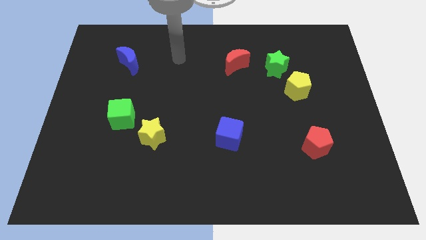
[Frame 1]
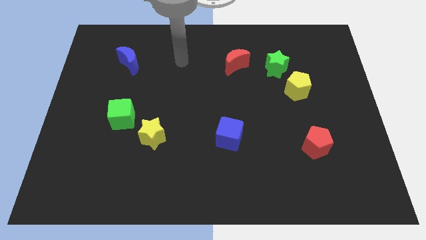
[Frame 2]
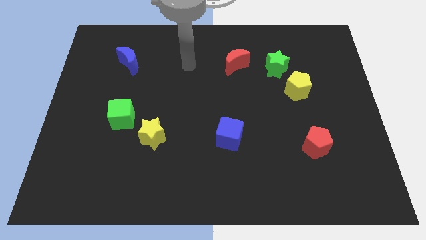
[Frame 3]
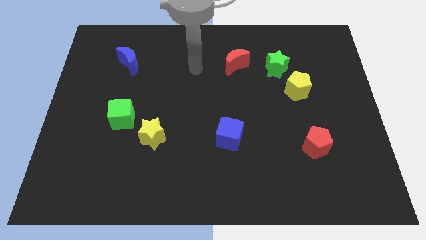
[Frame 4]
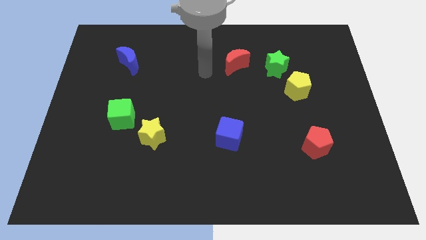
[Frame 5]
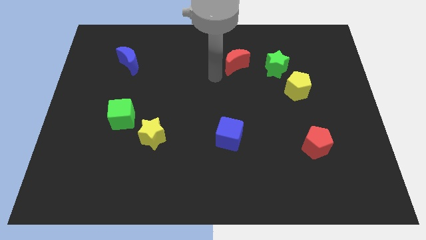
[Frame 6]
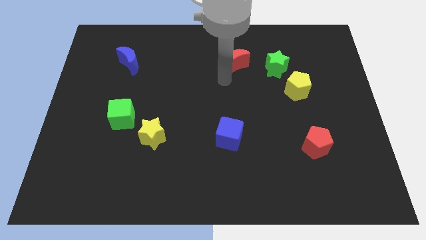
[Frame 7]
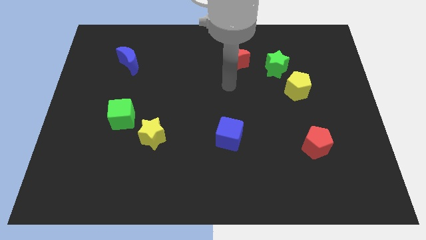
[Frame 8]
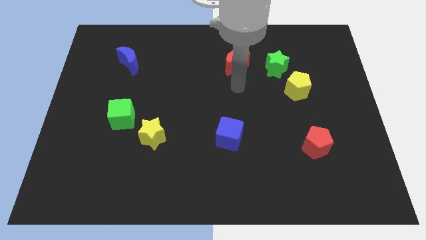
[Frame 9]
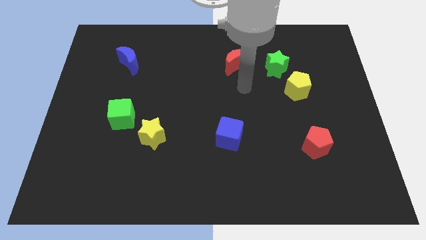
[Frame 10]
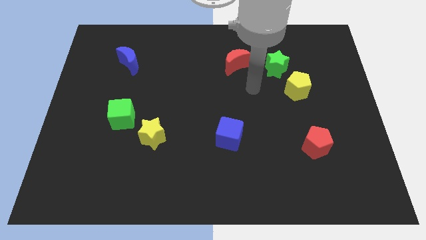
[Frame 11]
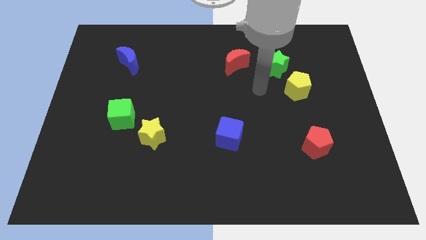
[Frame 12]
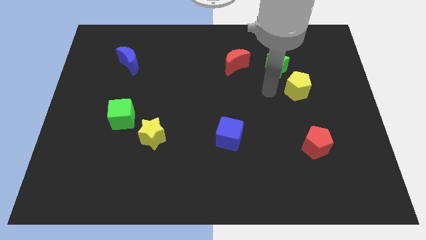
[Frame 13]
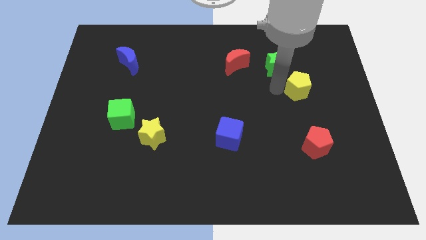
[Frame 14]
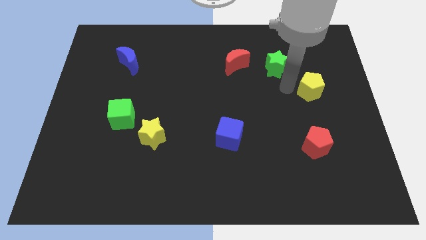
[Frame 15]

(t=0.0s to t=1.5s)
pull the green star apart from the yellow pentagon

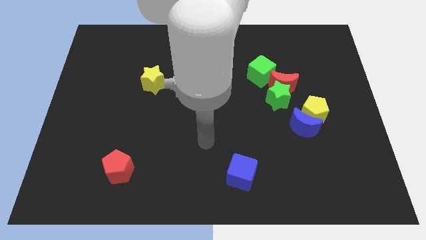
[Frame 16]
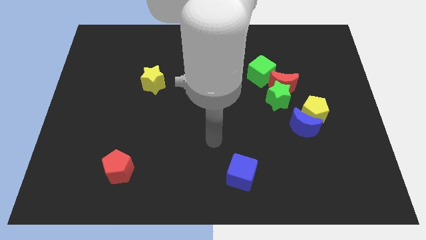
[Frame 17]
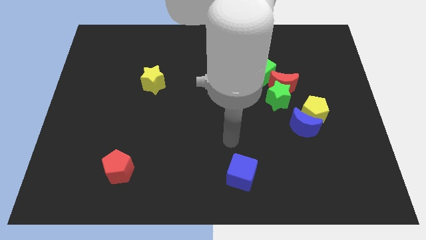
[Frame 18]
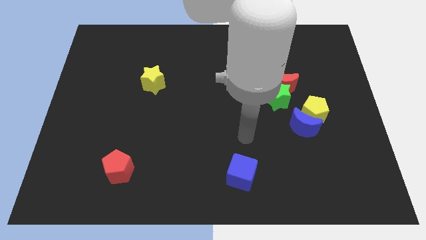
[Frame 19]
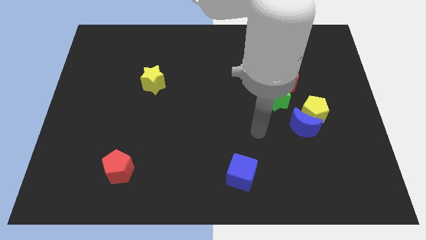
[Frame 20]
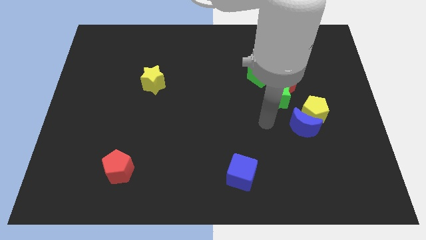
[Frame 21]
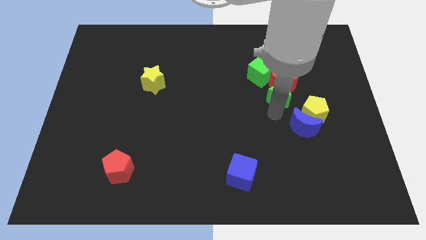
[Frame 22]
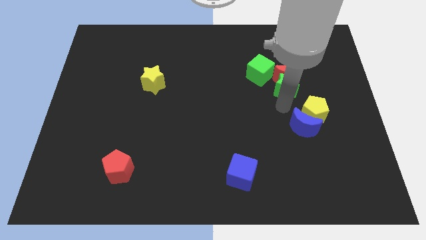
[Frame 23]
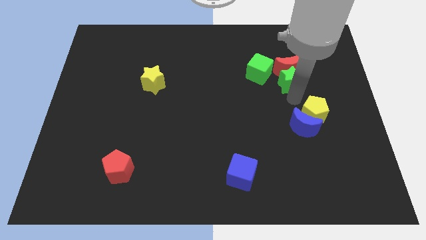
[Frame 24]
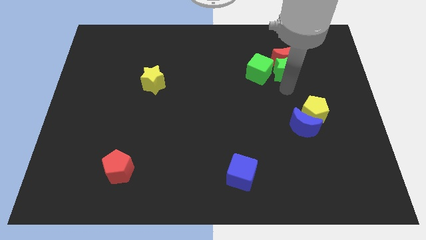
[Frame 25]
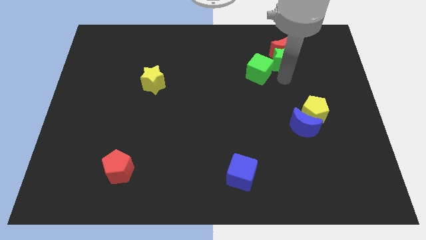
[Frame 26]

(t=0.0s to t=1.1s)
separate the red moon from the green star, green cube, and yellow pentagon

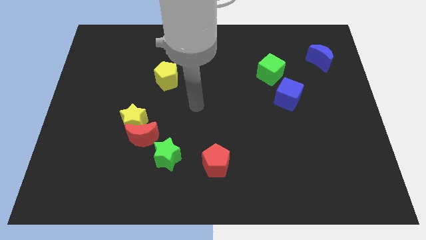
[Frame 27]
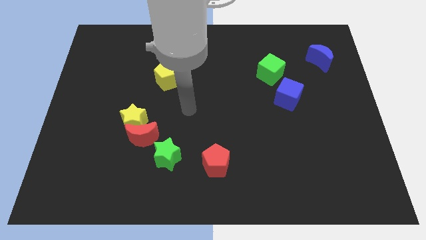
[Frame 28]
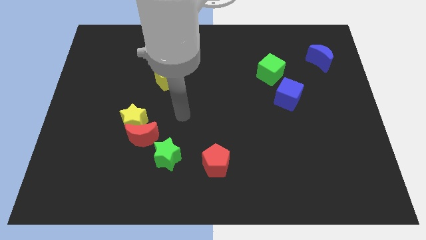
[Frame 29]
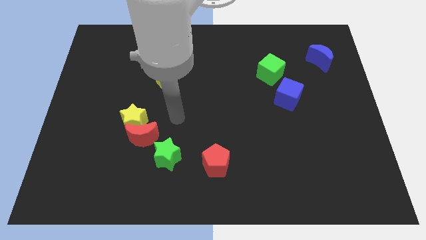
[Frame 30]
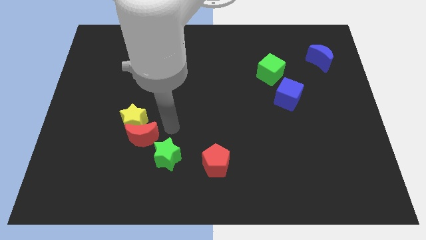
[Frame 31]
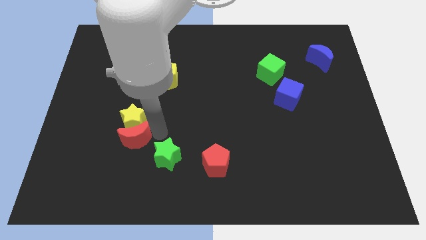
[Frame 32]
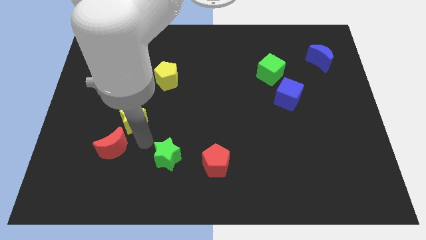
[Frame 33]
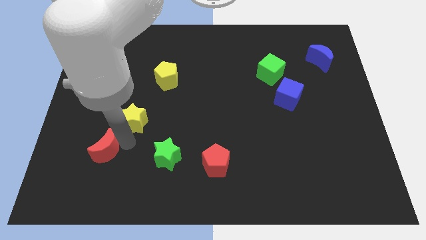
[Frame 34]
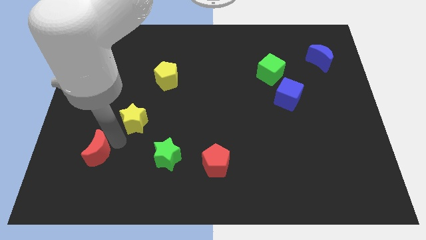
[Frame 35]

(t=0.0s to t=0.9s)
separate the yellow star from the red moon

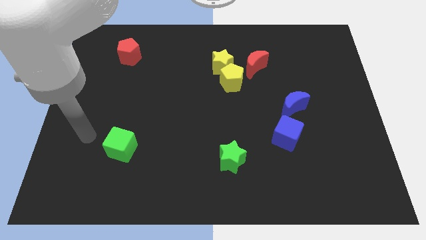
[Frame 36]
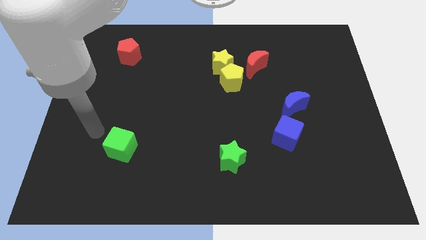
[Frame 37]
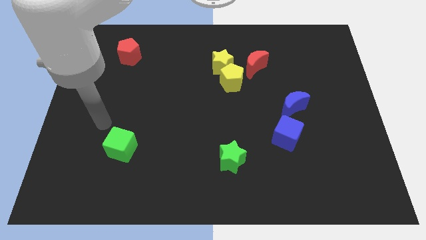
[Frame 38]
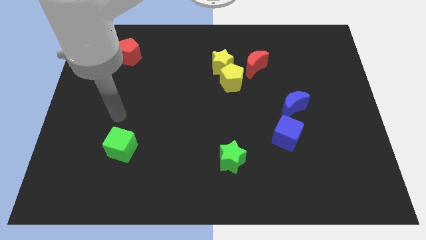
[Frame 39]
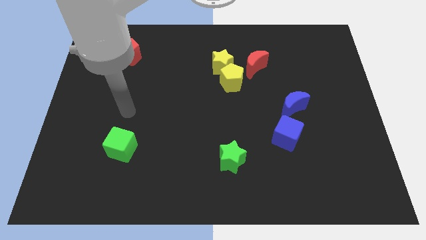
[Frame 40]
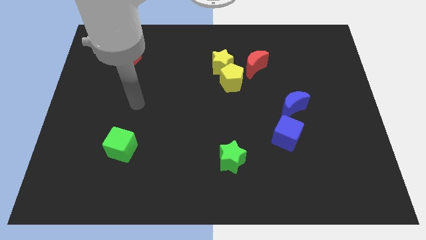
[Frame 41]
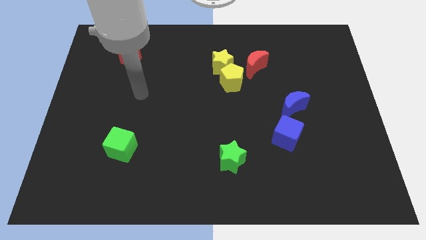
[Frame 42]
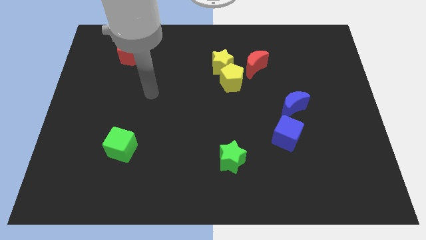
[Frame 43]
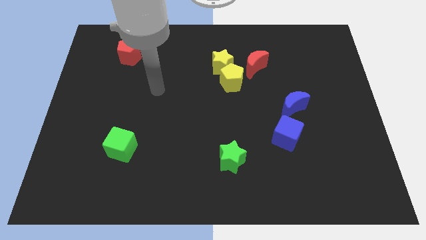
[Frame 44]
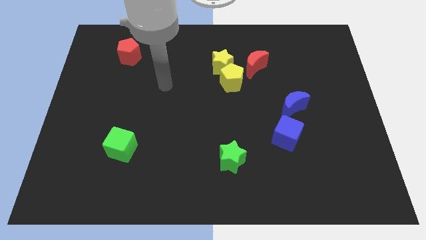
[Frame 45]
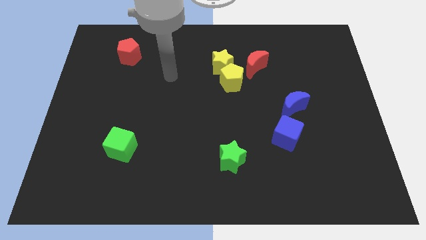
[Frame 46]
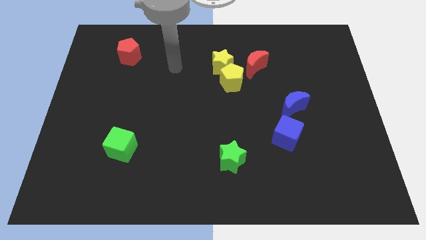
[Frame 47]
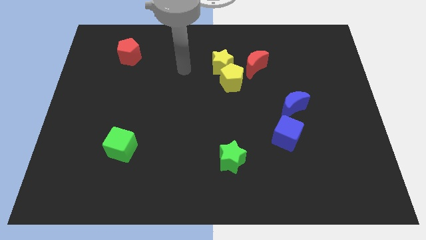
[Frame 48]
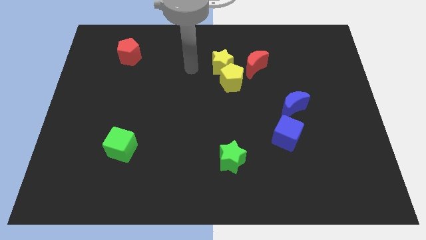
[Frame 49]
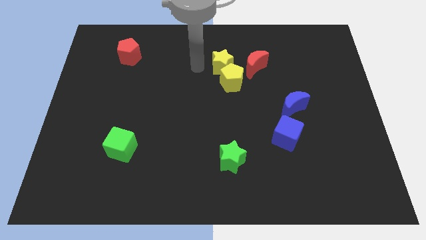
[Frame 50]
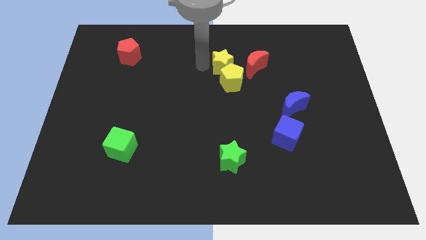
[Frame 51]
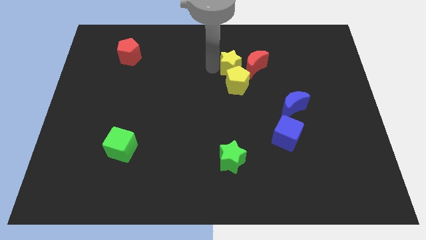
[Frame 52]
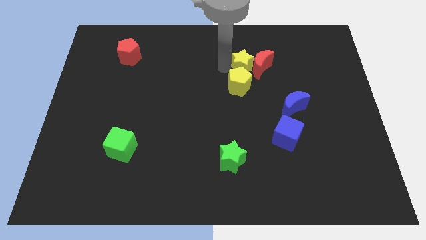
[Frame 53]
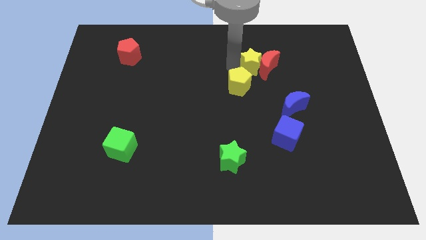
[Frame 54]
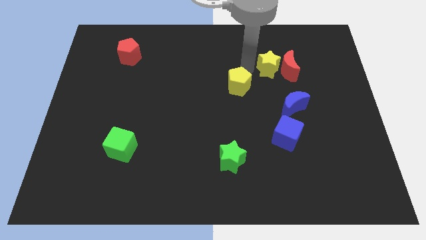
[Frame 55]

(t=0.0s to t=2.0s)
separate the yellow pentagon from the yellow star and red moon

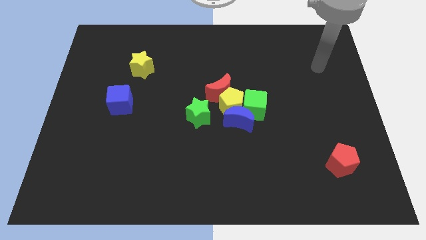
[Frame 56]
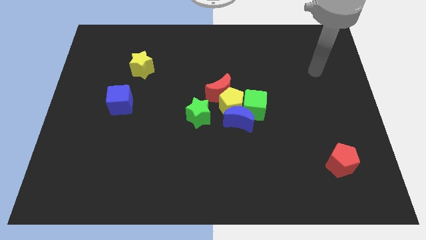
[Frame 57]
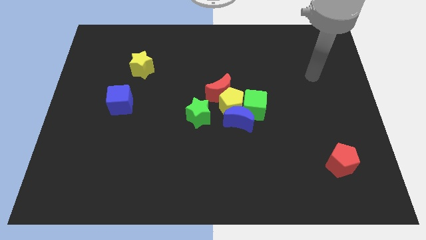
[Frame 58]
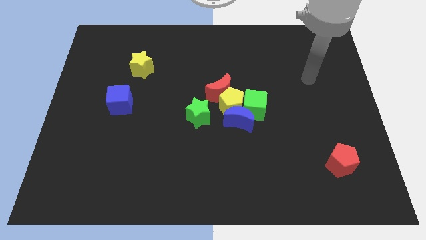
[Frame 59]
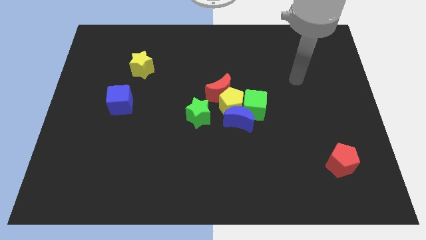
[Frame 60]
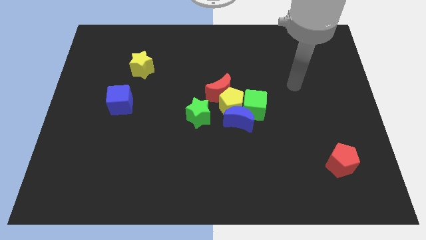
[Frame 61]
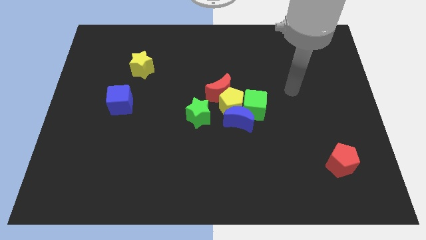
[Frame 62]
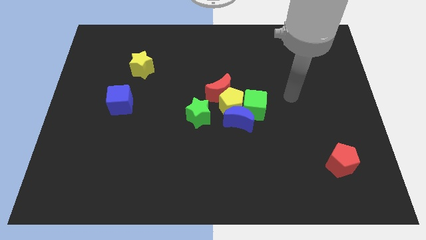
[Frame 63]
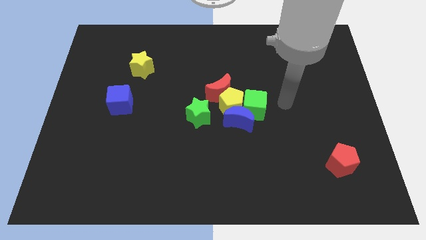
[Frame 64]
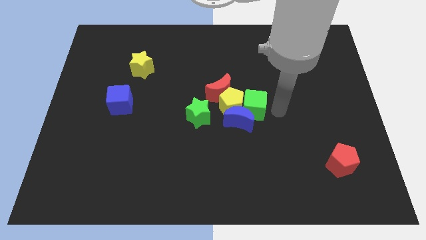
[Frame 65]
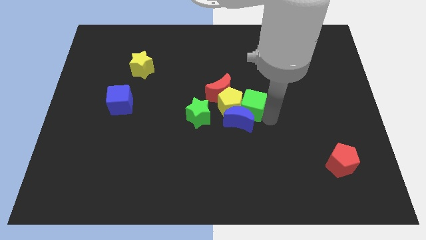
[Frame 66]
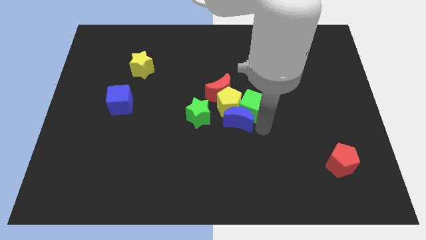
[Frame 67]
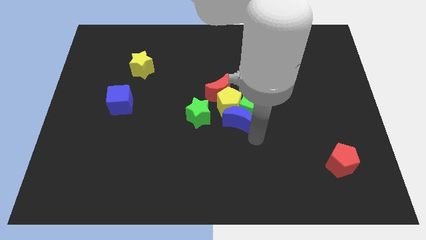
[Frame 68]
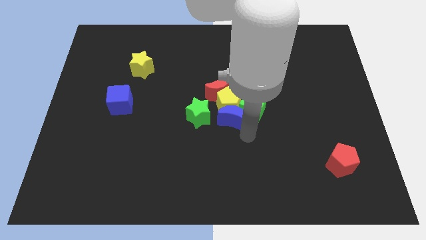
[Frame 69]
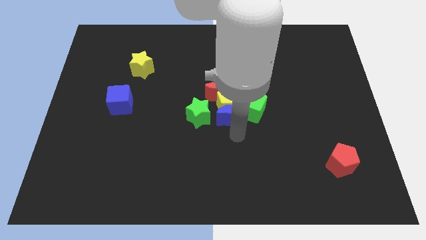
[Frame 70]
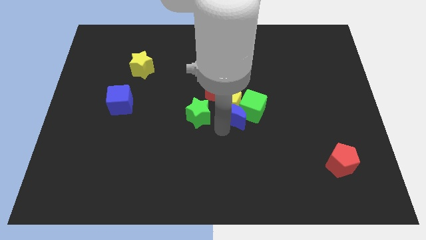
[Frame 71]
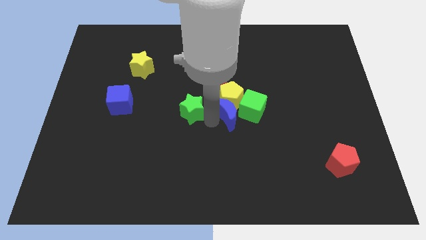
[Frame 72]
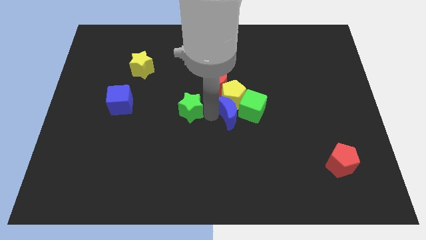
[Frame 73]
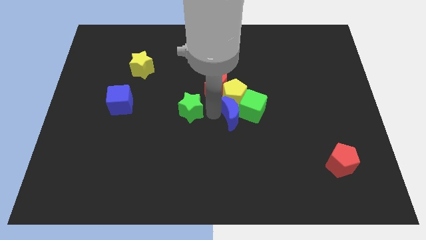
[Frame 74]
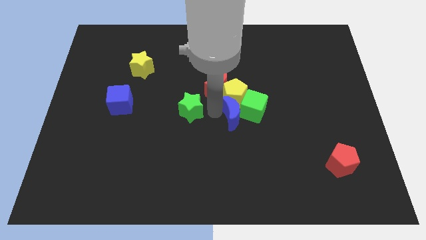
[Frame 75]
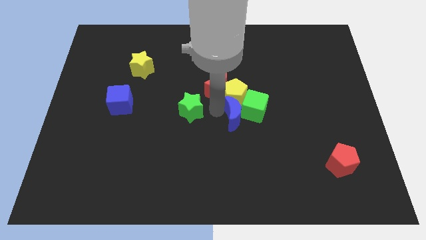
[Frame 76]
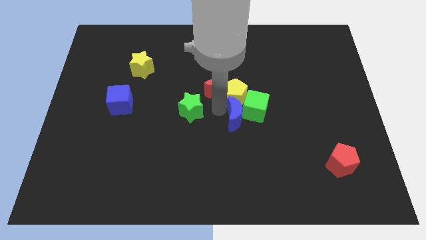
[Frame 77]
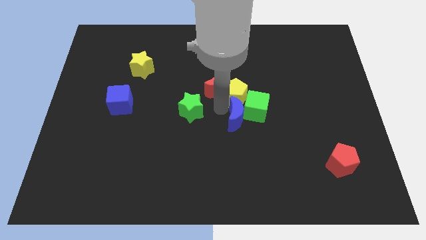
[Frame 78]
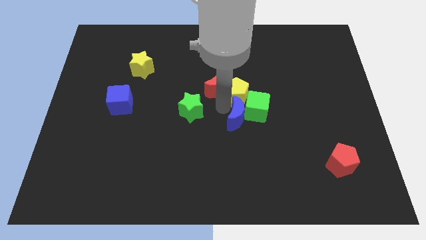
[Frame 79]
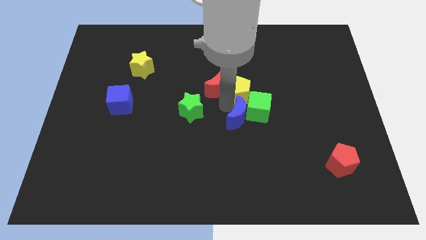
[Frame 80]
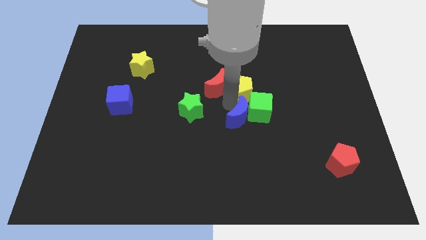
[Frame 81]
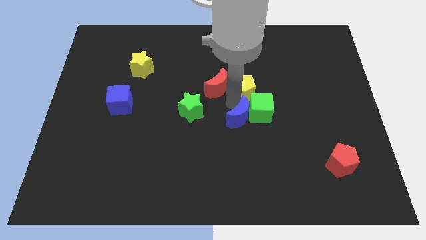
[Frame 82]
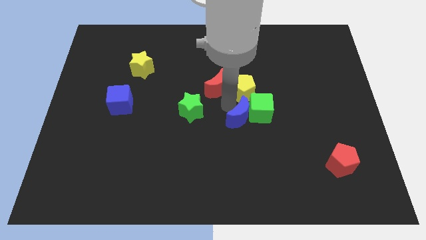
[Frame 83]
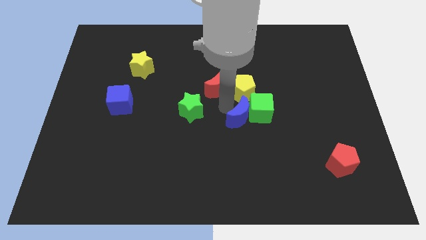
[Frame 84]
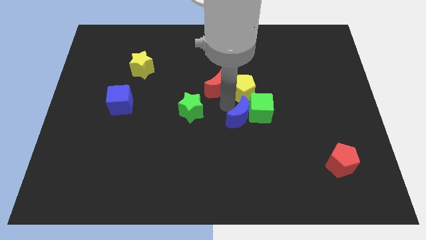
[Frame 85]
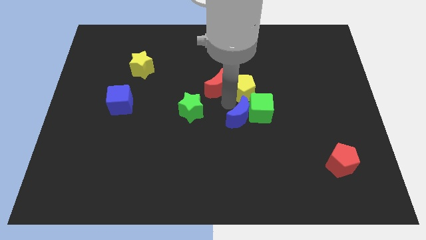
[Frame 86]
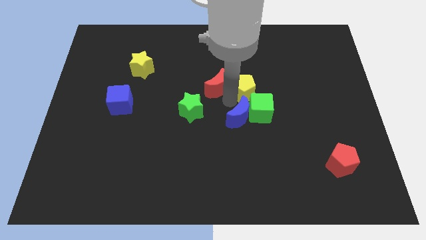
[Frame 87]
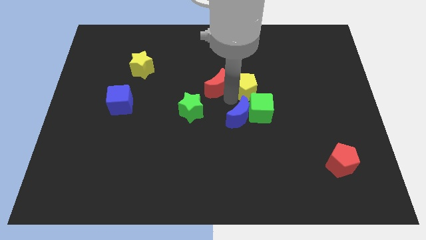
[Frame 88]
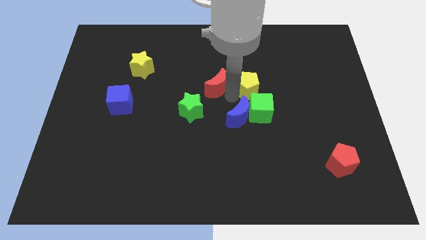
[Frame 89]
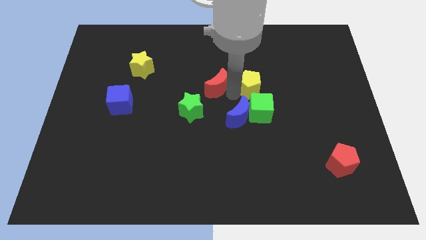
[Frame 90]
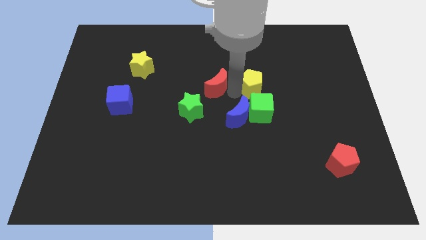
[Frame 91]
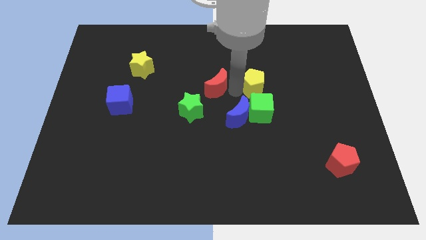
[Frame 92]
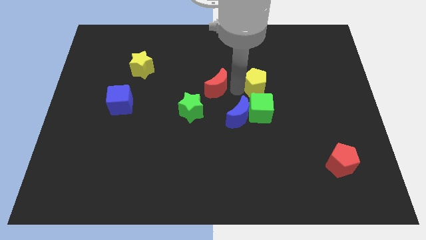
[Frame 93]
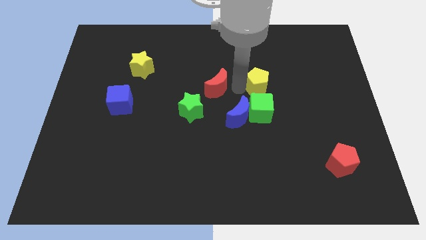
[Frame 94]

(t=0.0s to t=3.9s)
move the yellow pentagon away from the group
